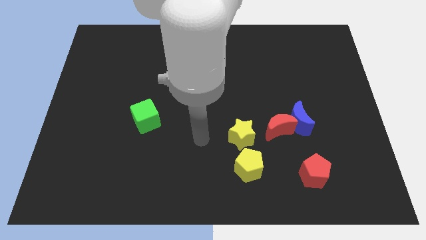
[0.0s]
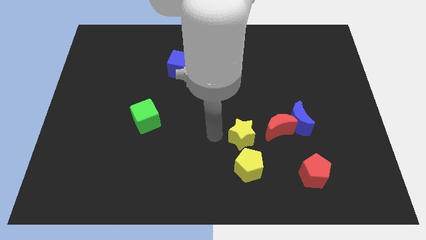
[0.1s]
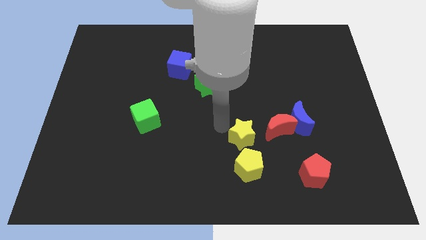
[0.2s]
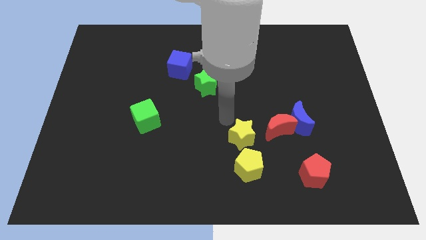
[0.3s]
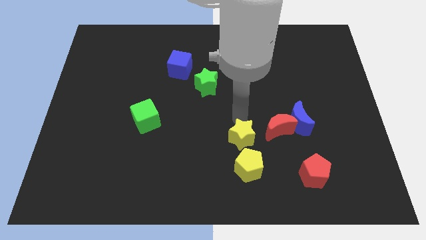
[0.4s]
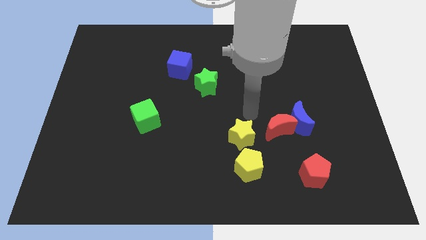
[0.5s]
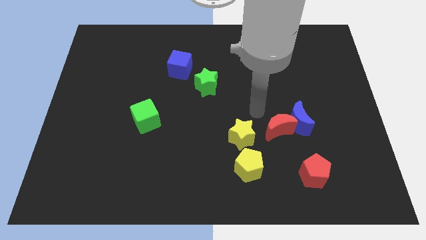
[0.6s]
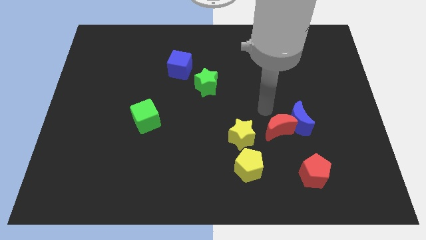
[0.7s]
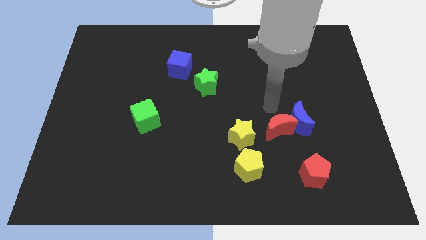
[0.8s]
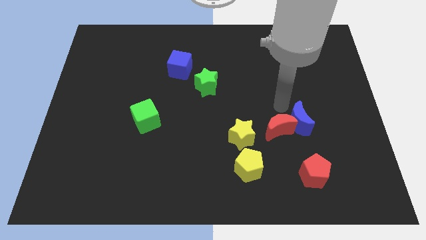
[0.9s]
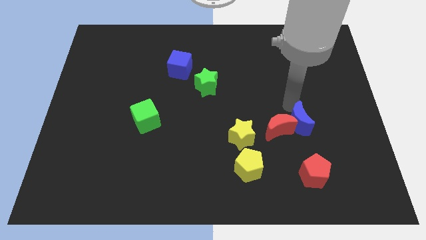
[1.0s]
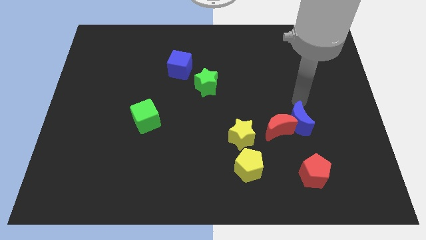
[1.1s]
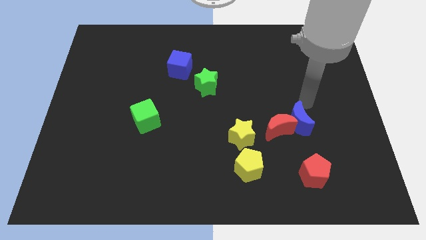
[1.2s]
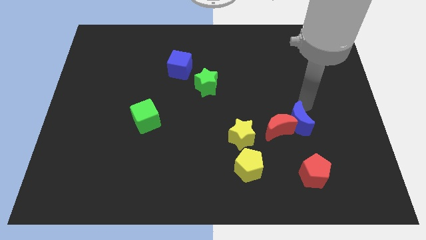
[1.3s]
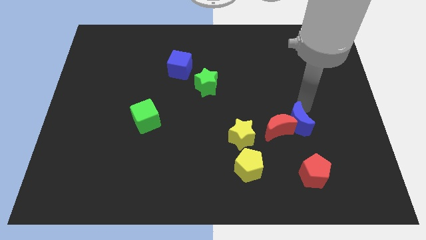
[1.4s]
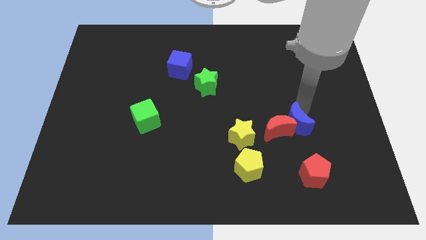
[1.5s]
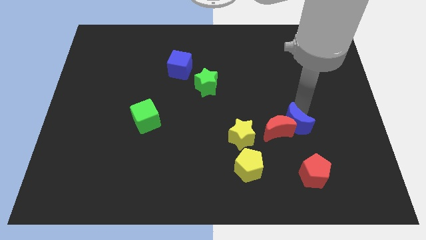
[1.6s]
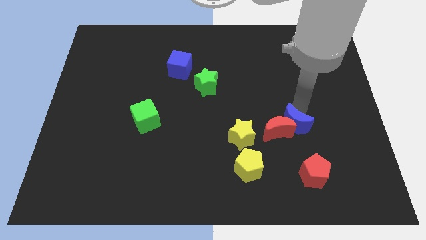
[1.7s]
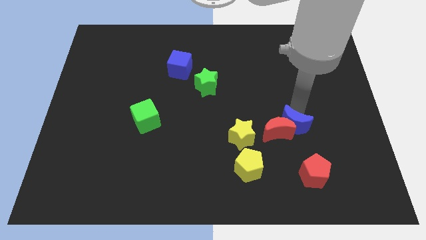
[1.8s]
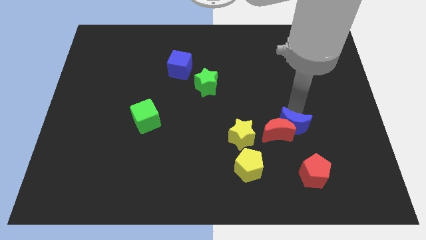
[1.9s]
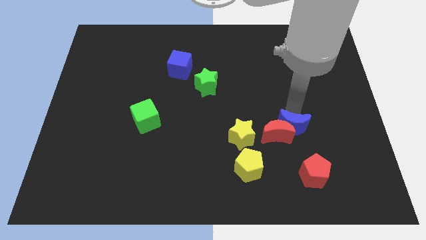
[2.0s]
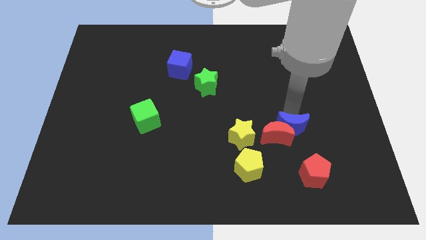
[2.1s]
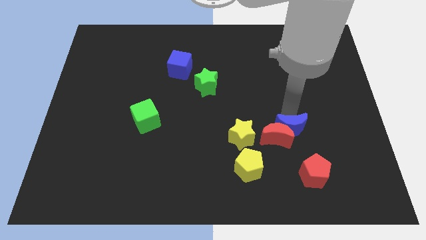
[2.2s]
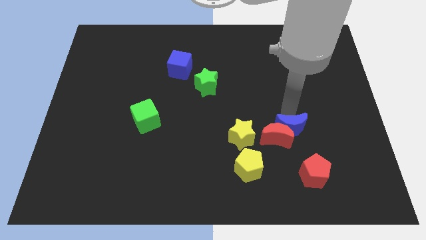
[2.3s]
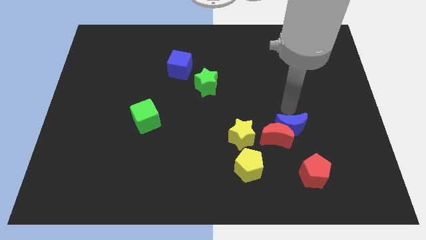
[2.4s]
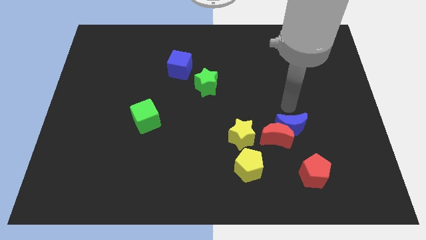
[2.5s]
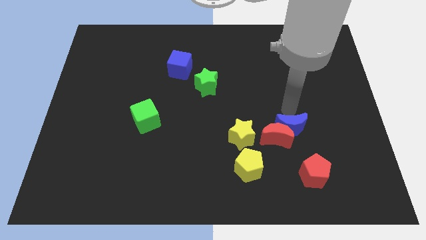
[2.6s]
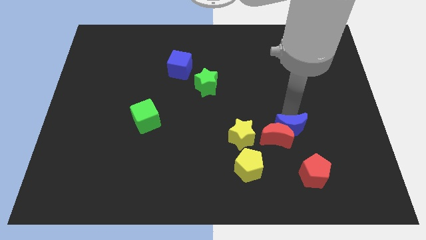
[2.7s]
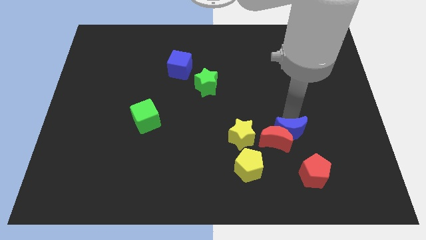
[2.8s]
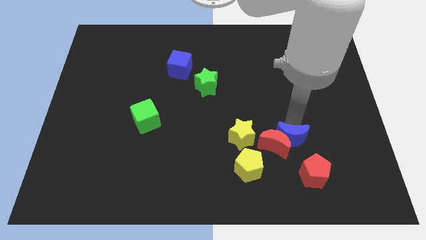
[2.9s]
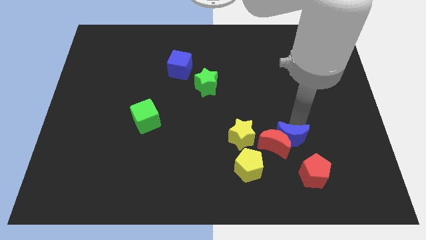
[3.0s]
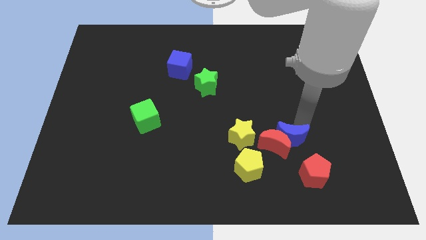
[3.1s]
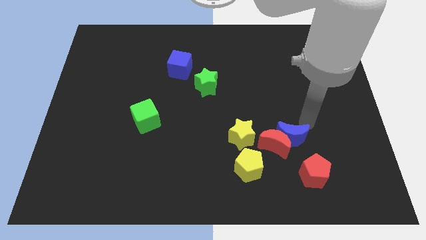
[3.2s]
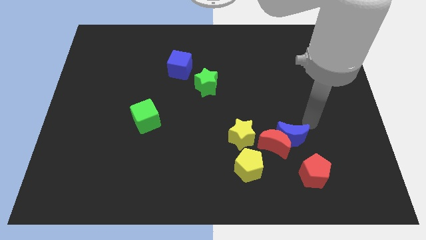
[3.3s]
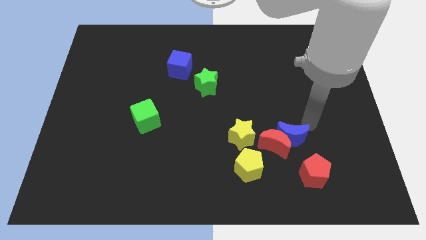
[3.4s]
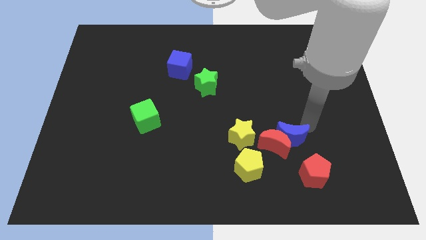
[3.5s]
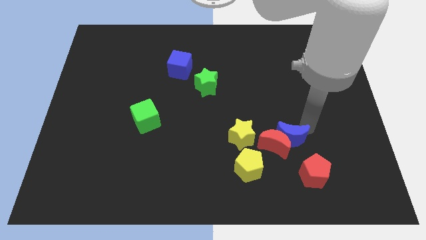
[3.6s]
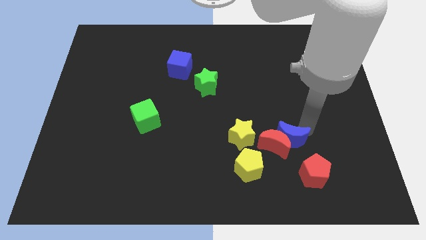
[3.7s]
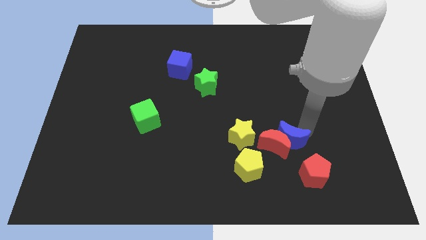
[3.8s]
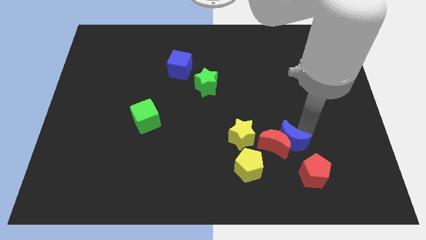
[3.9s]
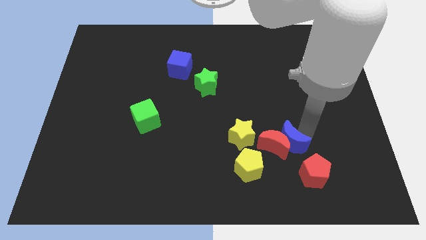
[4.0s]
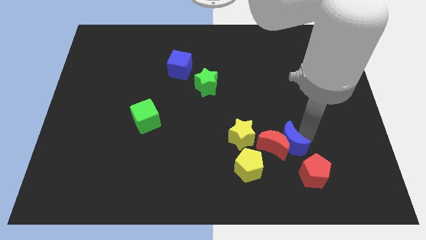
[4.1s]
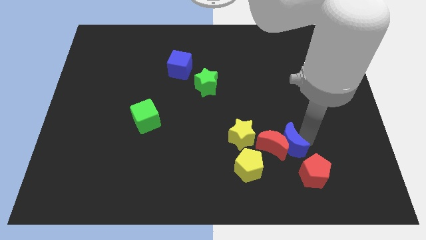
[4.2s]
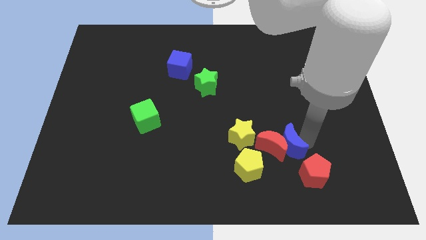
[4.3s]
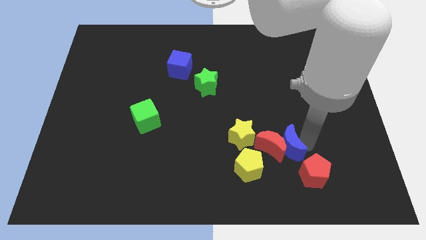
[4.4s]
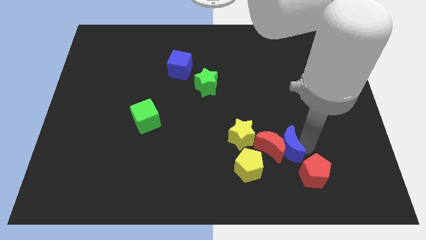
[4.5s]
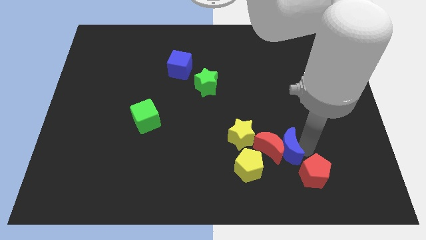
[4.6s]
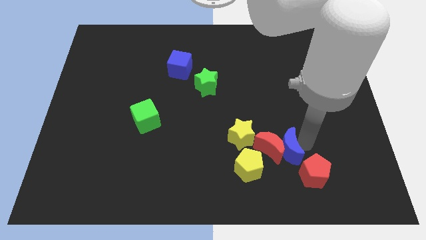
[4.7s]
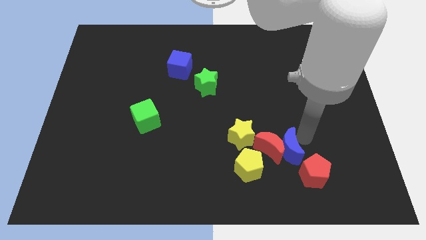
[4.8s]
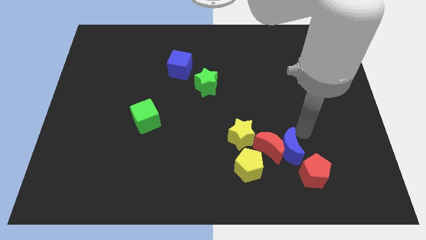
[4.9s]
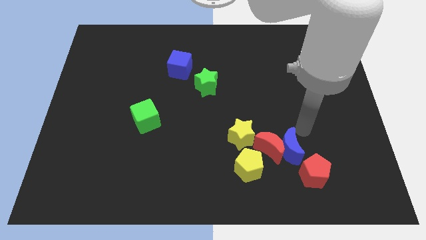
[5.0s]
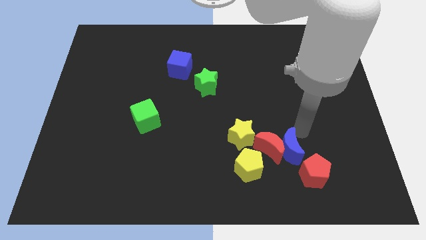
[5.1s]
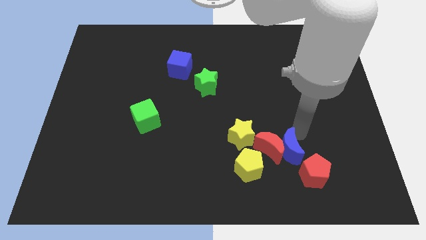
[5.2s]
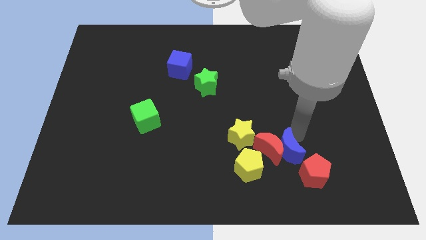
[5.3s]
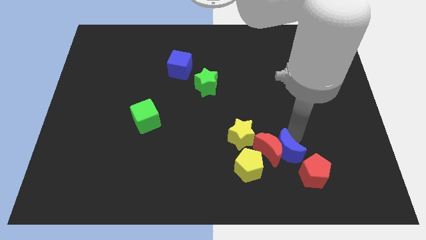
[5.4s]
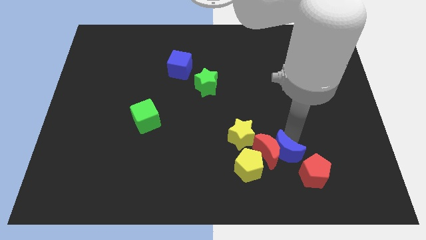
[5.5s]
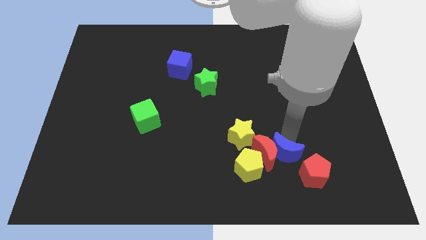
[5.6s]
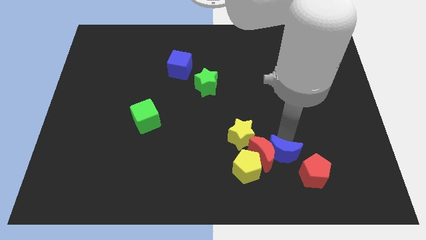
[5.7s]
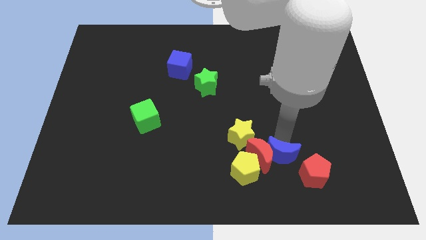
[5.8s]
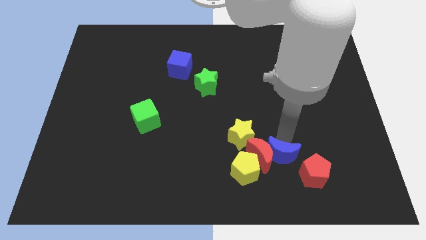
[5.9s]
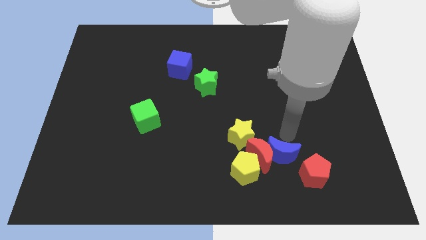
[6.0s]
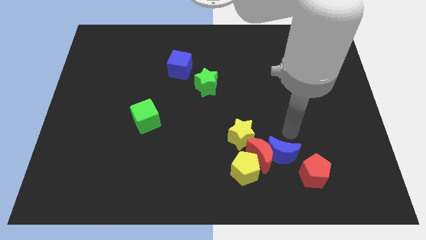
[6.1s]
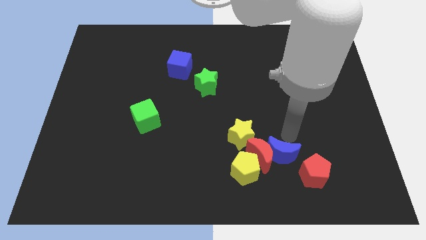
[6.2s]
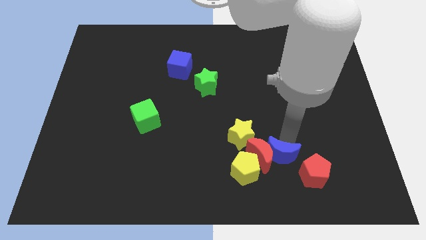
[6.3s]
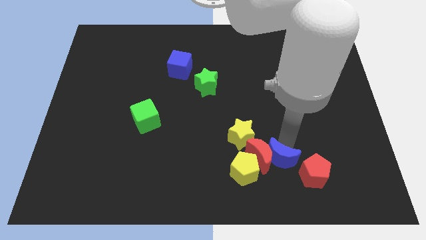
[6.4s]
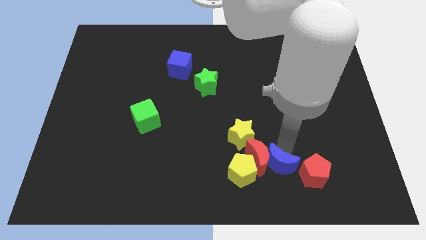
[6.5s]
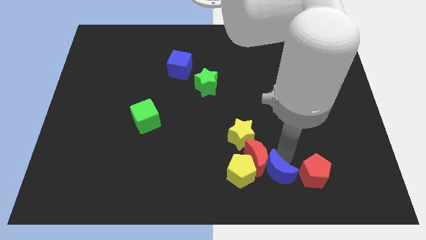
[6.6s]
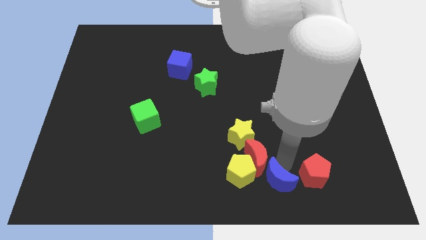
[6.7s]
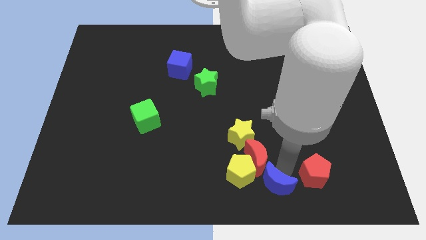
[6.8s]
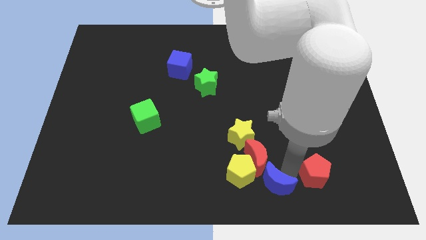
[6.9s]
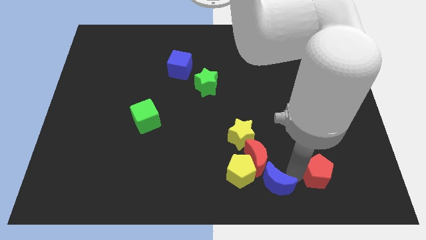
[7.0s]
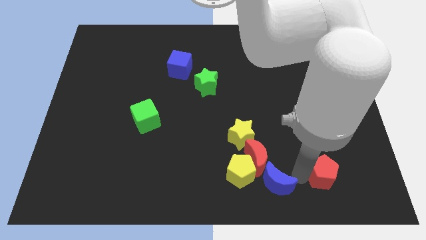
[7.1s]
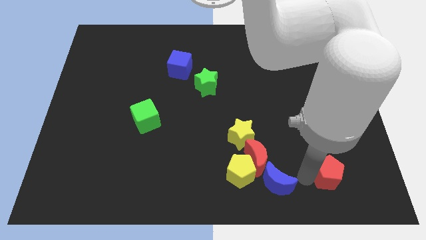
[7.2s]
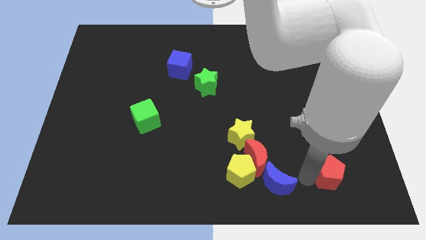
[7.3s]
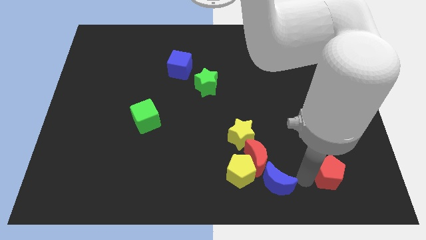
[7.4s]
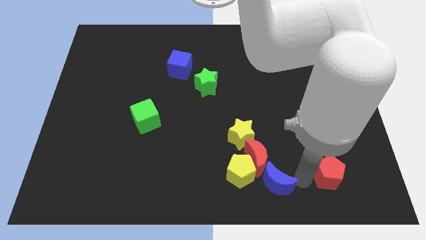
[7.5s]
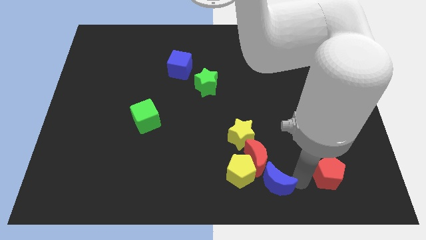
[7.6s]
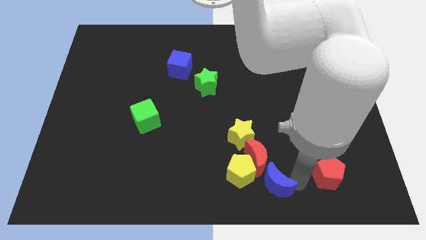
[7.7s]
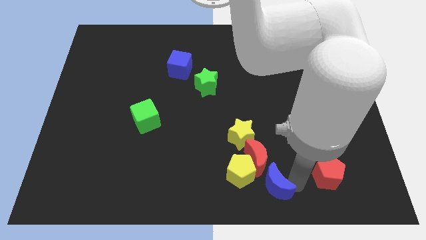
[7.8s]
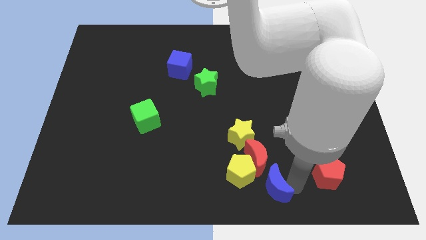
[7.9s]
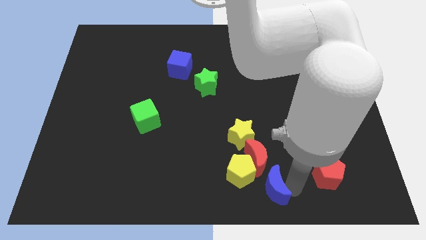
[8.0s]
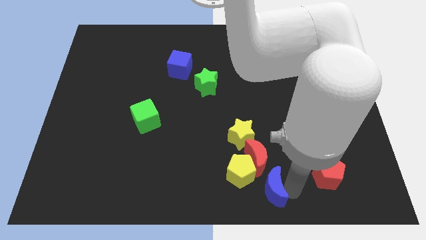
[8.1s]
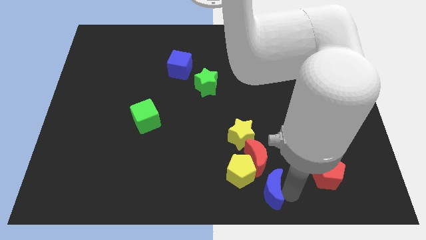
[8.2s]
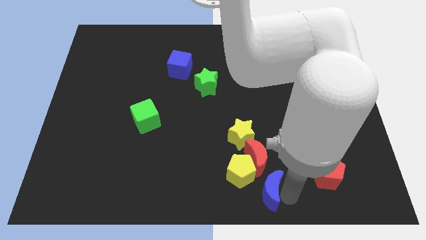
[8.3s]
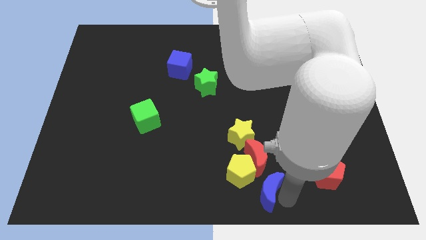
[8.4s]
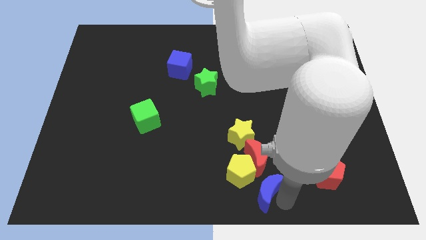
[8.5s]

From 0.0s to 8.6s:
move the blue moon below the yellow star
